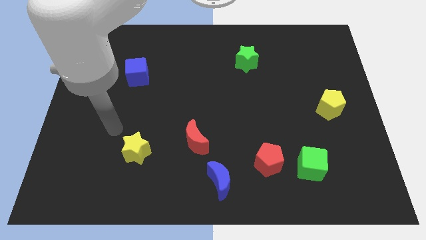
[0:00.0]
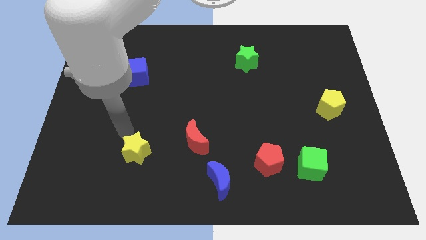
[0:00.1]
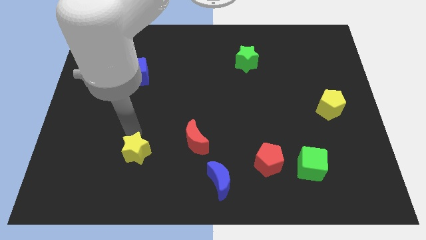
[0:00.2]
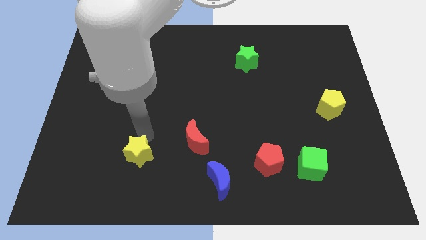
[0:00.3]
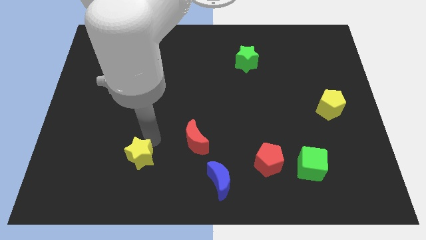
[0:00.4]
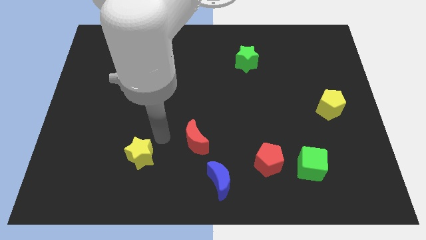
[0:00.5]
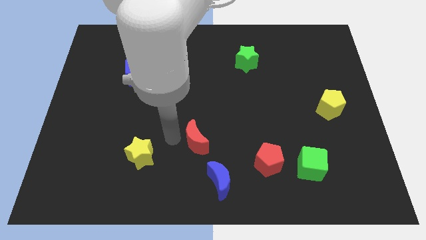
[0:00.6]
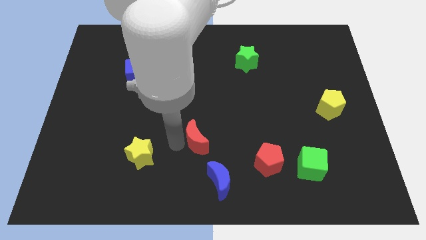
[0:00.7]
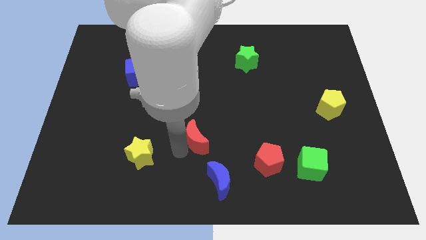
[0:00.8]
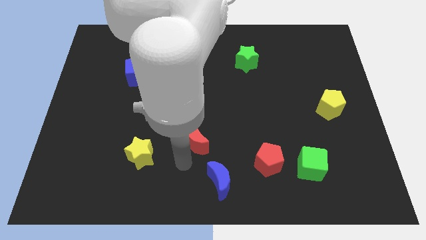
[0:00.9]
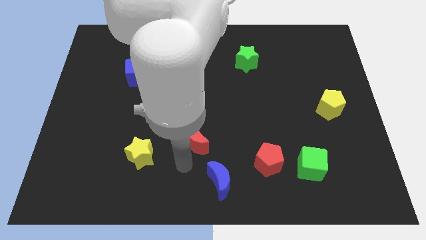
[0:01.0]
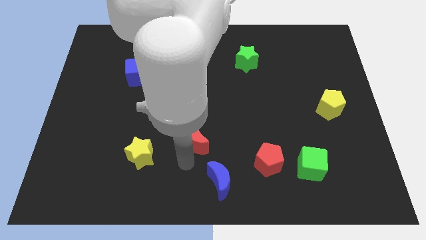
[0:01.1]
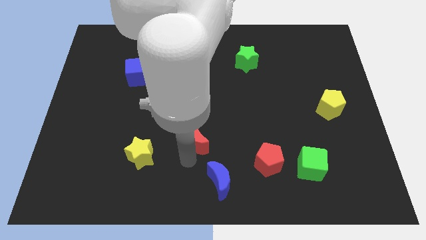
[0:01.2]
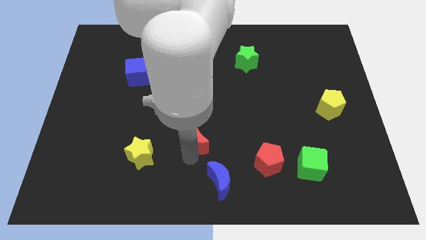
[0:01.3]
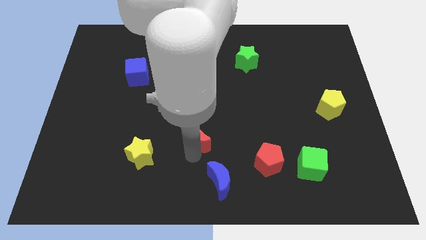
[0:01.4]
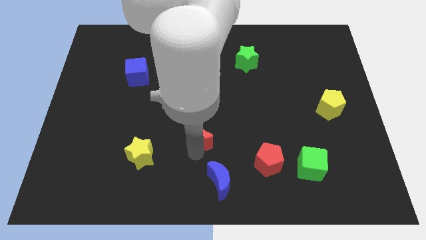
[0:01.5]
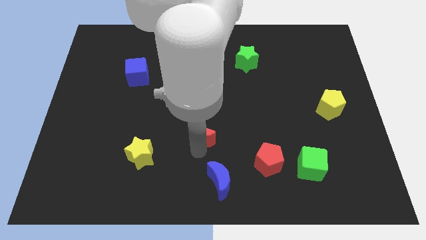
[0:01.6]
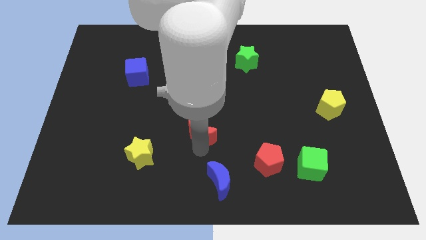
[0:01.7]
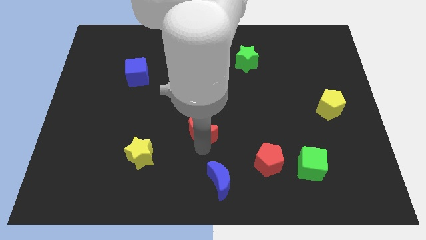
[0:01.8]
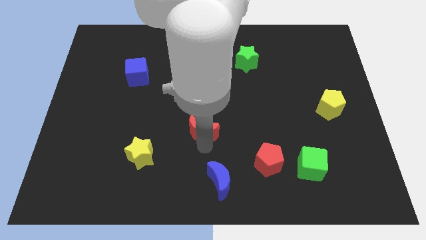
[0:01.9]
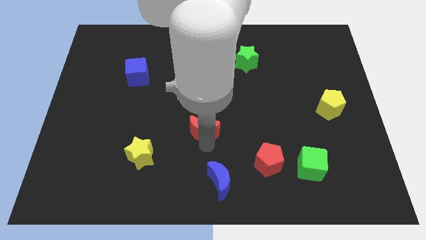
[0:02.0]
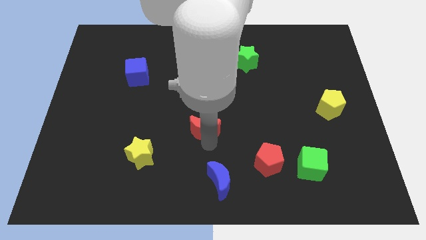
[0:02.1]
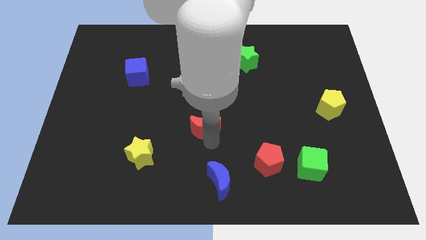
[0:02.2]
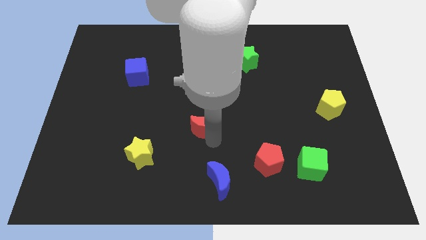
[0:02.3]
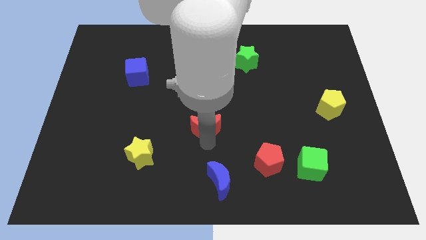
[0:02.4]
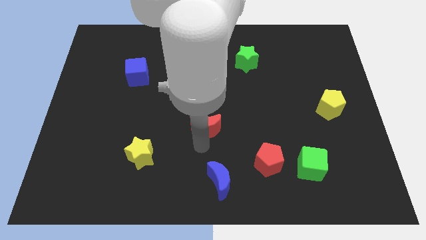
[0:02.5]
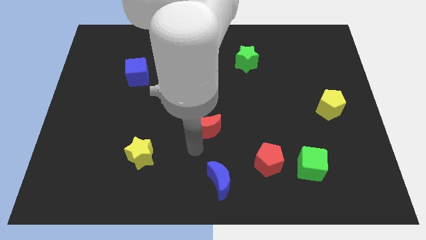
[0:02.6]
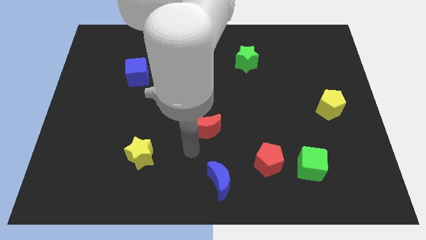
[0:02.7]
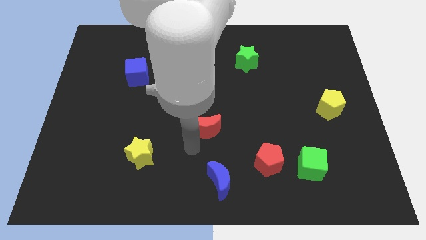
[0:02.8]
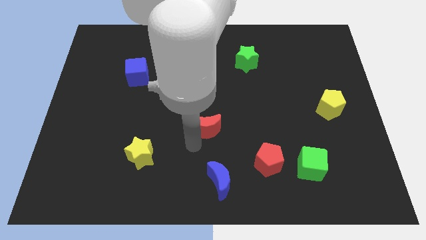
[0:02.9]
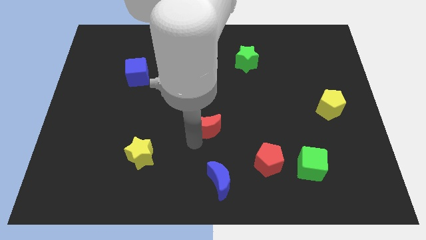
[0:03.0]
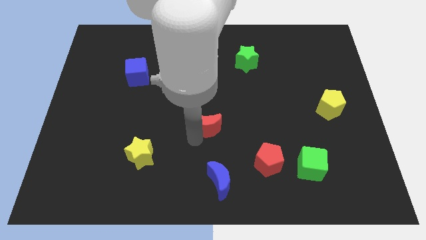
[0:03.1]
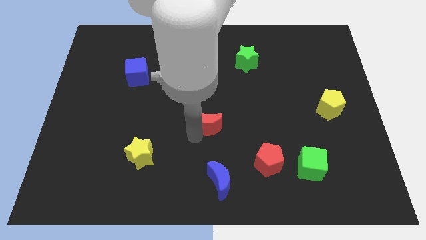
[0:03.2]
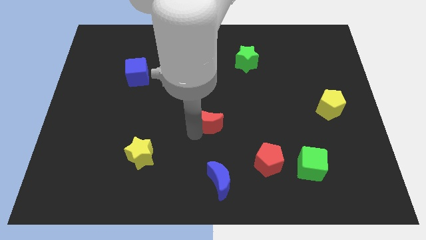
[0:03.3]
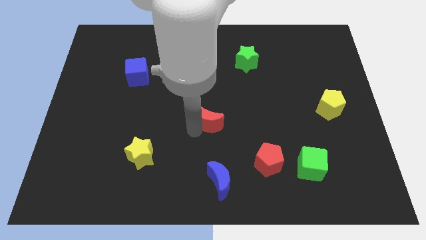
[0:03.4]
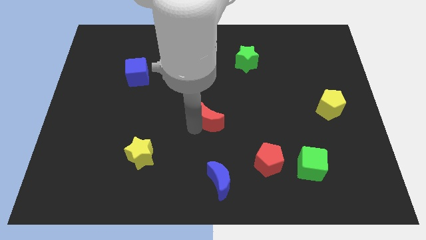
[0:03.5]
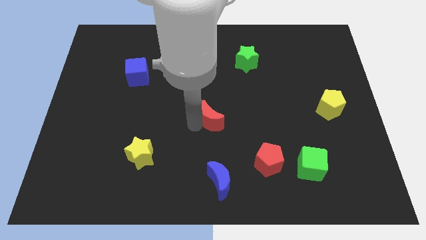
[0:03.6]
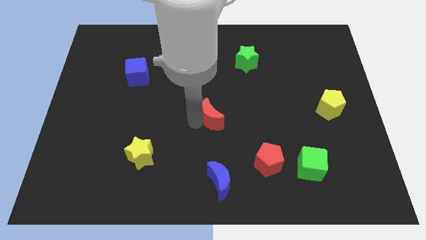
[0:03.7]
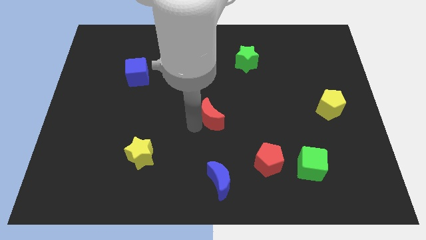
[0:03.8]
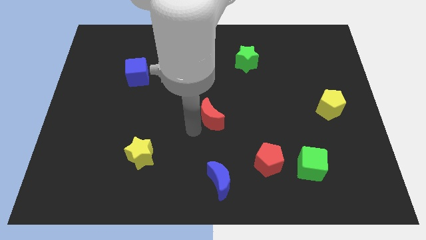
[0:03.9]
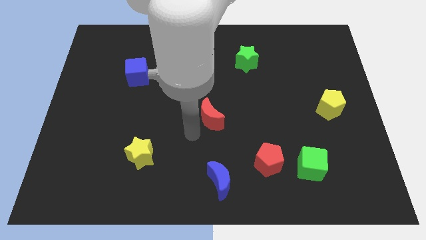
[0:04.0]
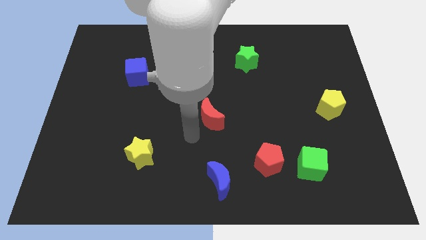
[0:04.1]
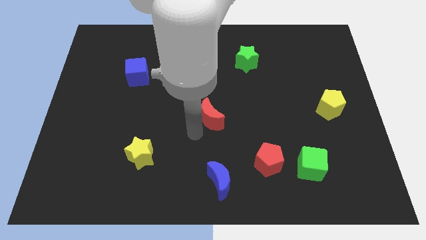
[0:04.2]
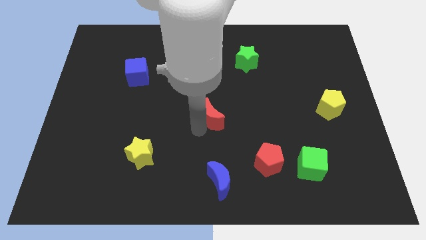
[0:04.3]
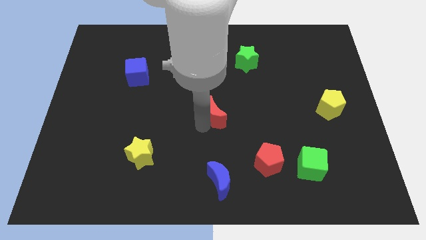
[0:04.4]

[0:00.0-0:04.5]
move the red moon upwards and to the right slightly

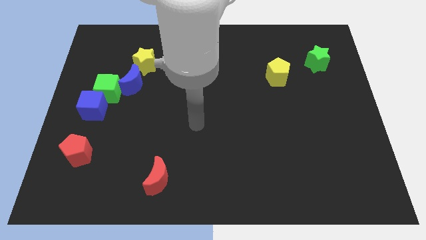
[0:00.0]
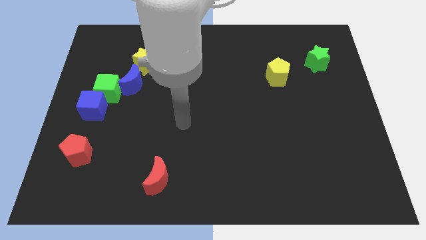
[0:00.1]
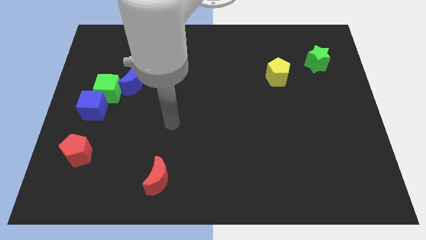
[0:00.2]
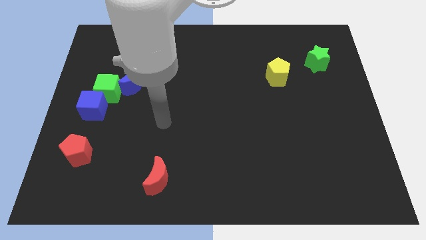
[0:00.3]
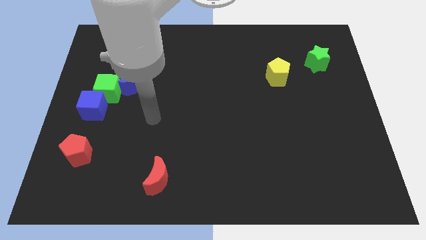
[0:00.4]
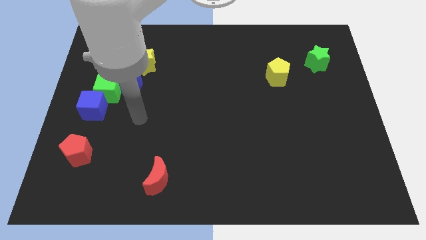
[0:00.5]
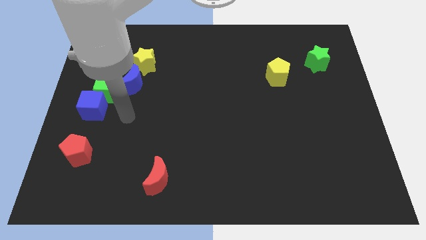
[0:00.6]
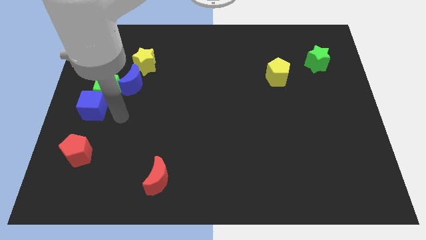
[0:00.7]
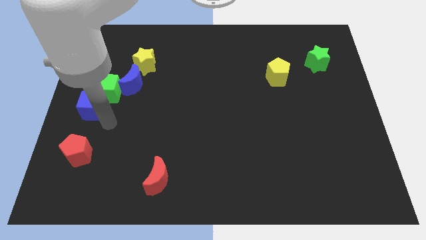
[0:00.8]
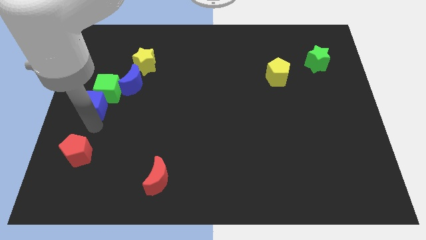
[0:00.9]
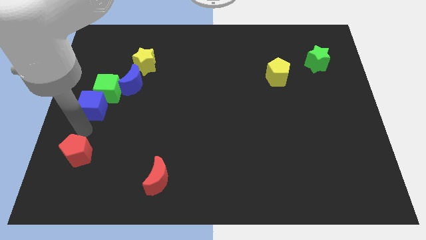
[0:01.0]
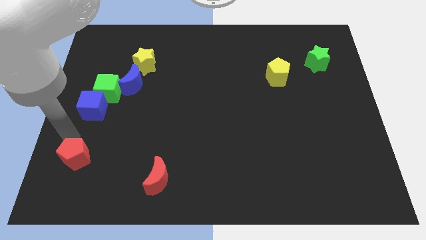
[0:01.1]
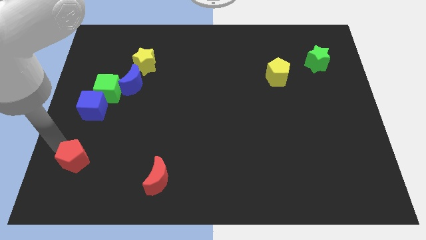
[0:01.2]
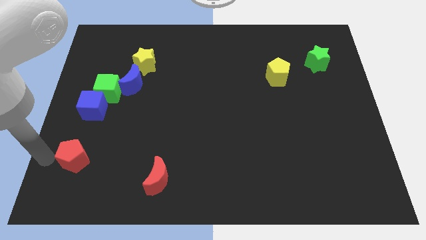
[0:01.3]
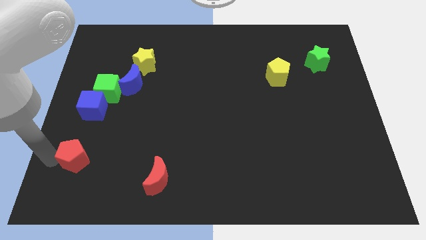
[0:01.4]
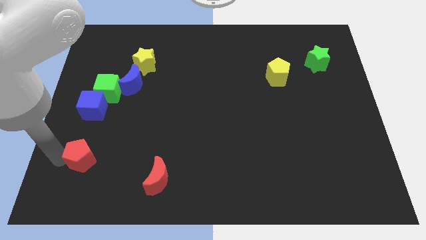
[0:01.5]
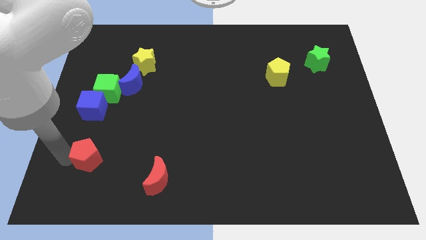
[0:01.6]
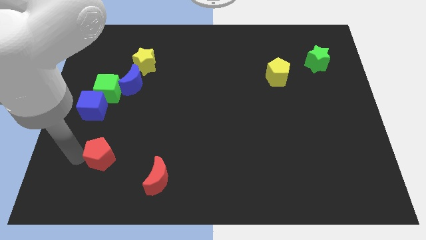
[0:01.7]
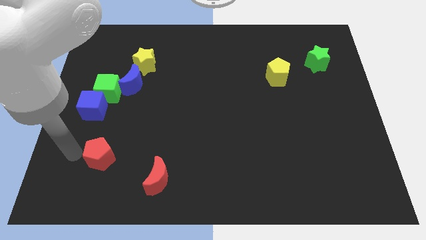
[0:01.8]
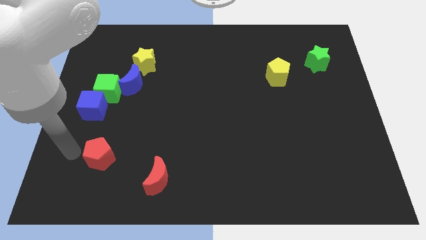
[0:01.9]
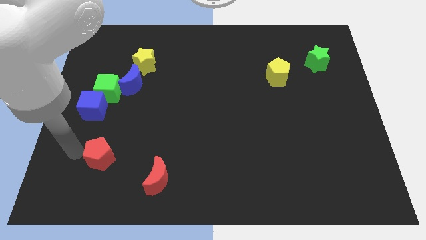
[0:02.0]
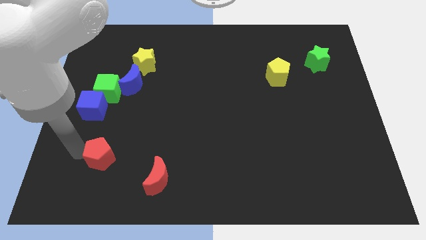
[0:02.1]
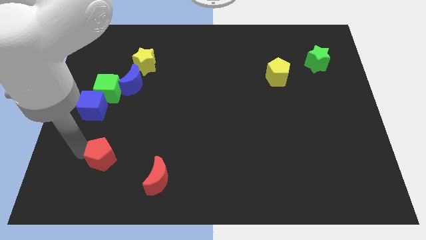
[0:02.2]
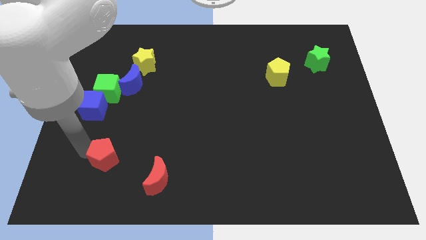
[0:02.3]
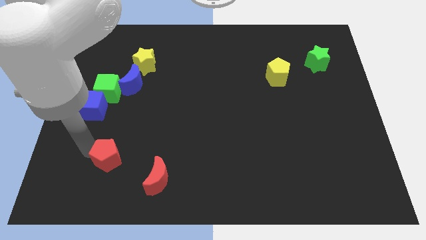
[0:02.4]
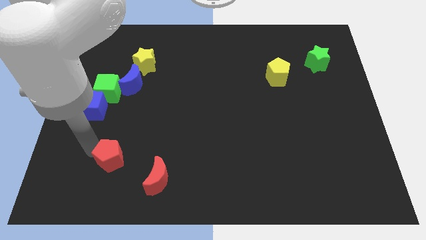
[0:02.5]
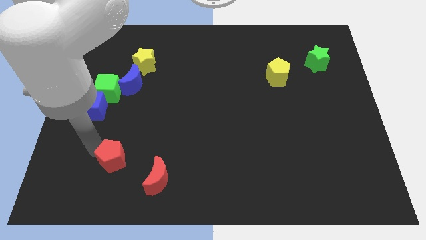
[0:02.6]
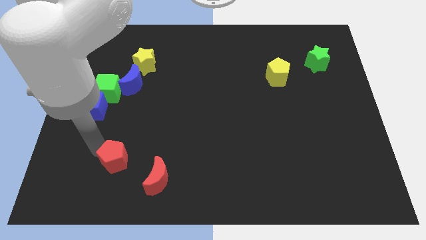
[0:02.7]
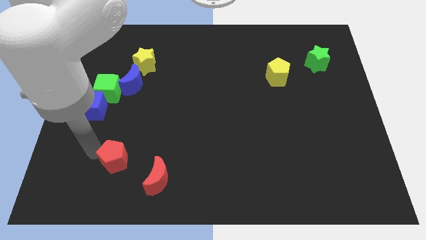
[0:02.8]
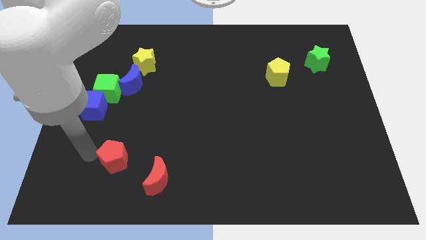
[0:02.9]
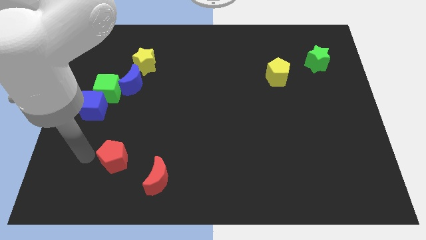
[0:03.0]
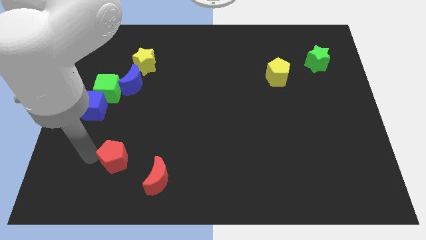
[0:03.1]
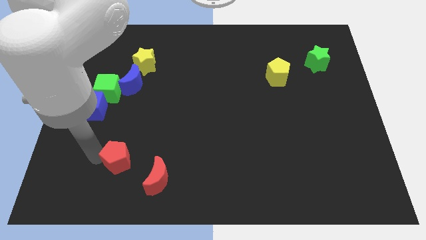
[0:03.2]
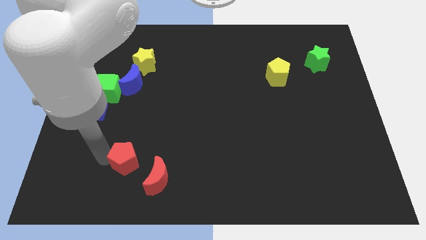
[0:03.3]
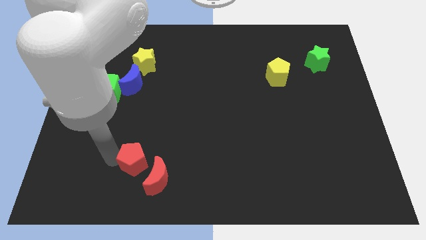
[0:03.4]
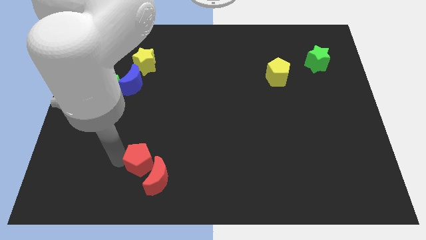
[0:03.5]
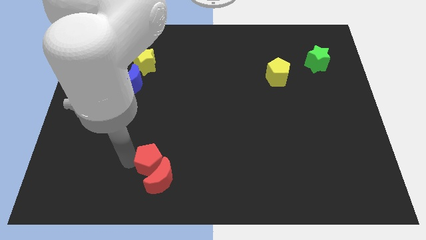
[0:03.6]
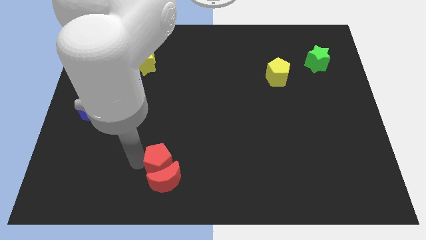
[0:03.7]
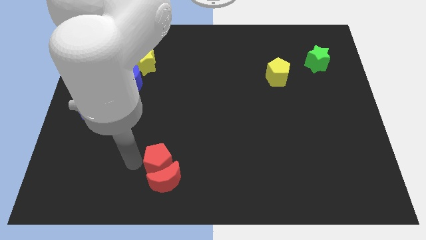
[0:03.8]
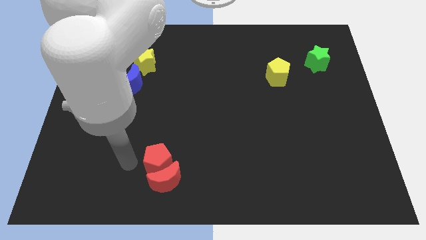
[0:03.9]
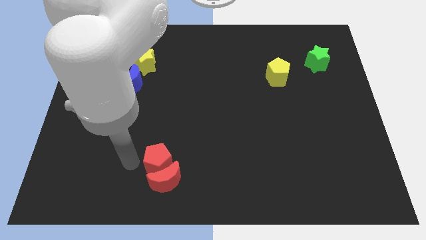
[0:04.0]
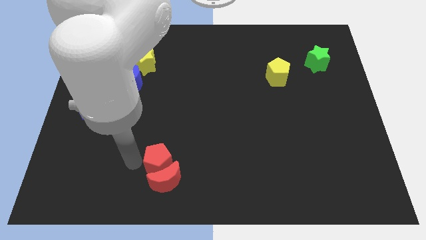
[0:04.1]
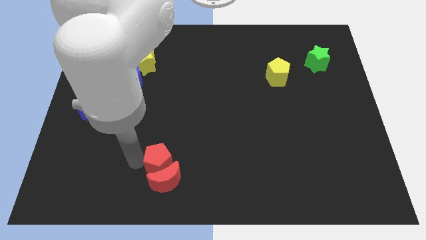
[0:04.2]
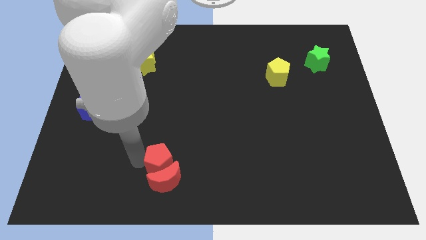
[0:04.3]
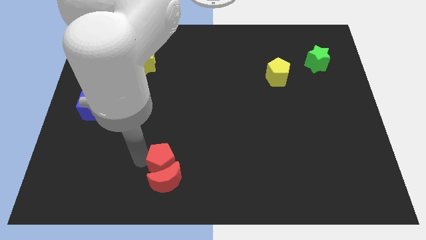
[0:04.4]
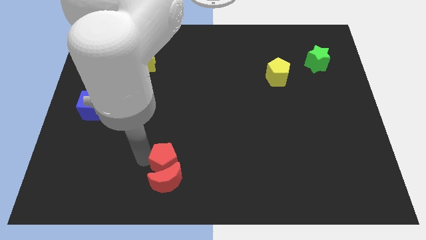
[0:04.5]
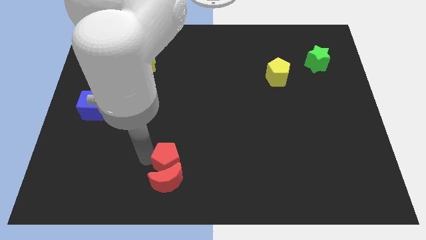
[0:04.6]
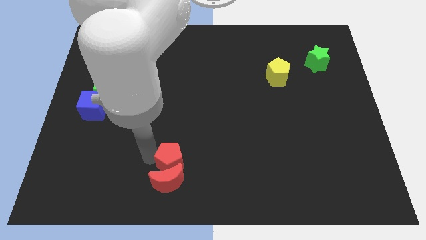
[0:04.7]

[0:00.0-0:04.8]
slide the red pentagon right
